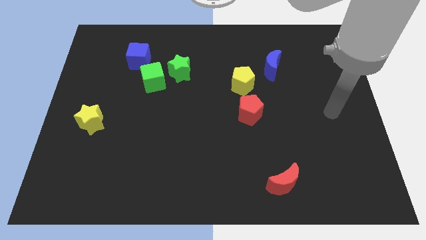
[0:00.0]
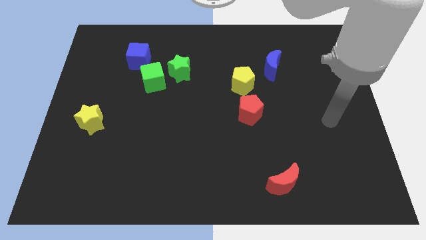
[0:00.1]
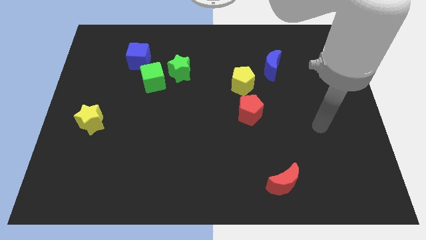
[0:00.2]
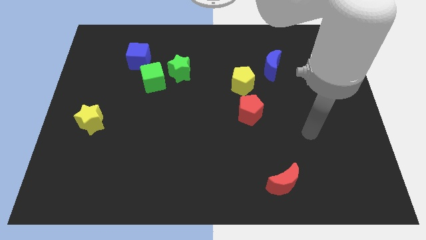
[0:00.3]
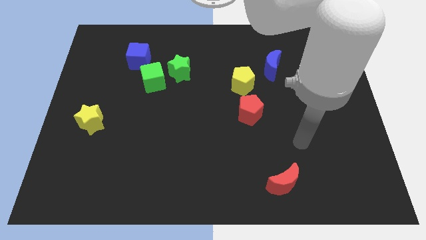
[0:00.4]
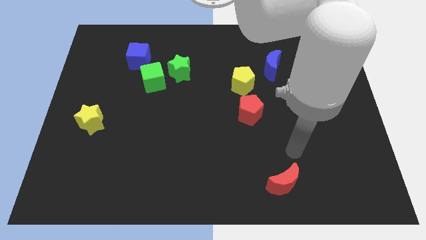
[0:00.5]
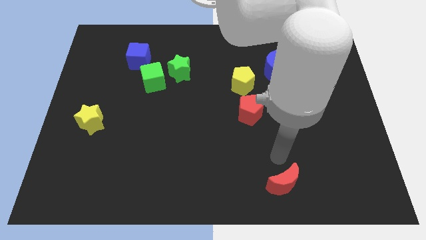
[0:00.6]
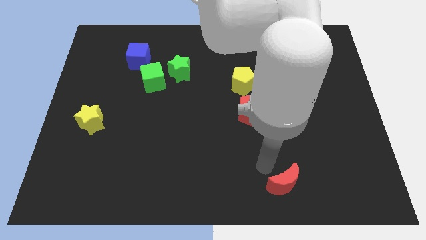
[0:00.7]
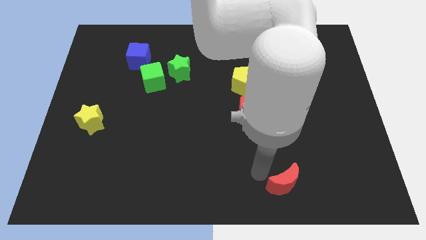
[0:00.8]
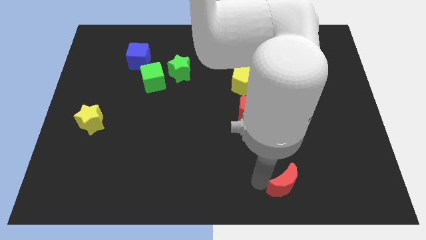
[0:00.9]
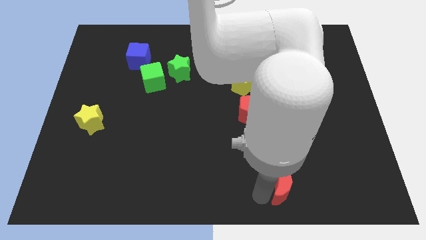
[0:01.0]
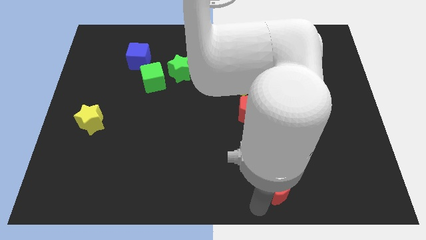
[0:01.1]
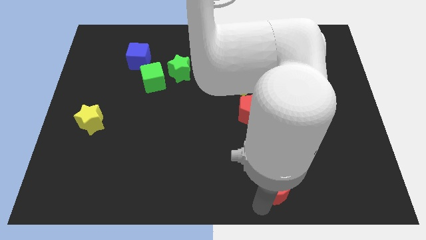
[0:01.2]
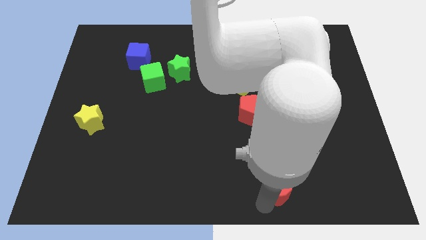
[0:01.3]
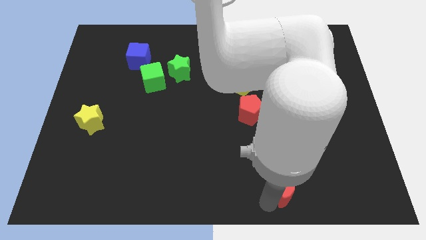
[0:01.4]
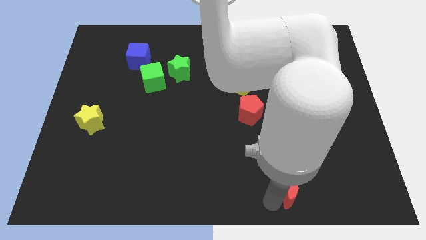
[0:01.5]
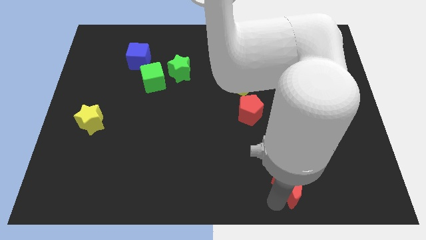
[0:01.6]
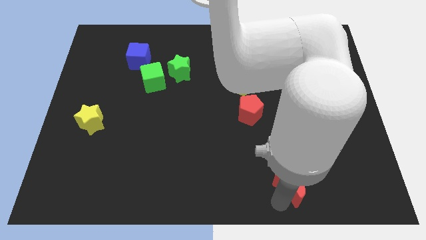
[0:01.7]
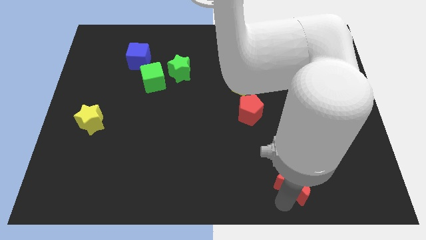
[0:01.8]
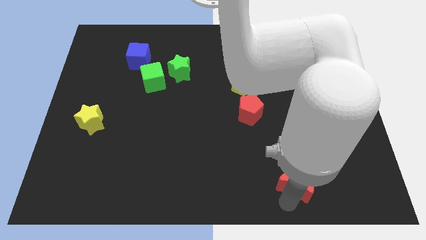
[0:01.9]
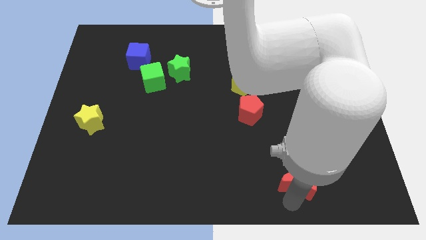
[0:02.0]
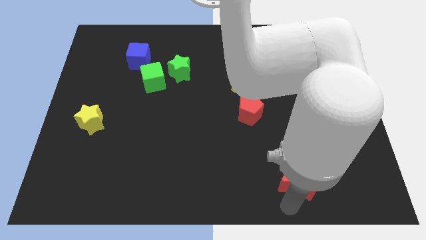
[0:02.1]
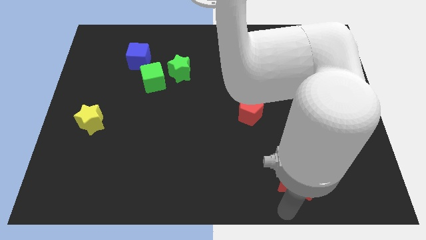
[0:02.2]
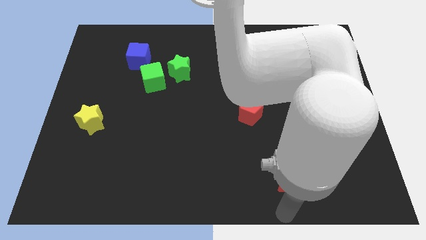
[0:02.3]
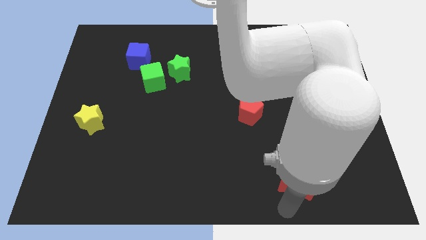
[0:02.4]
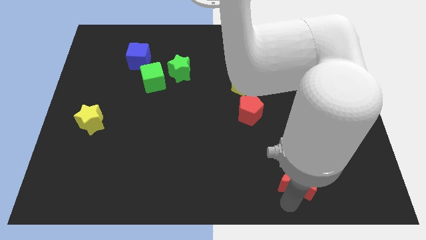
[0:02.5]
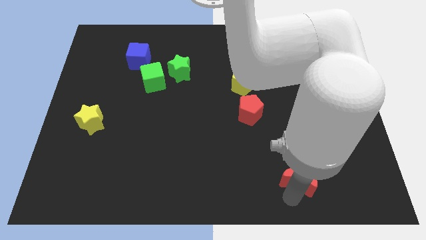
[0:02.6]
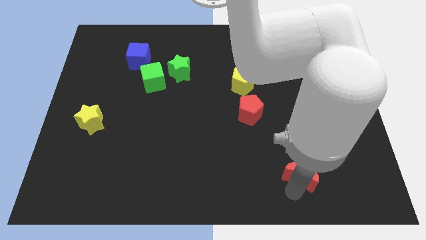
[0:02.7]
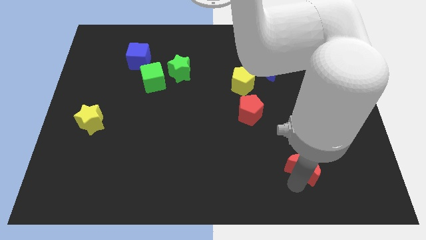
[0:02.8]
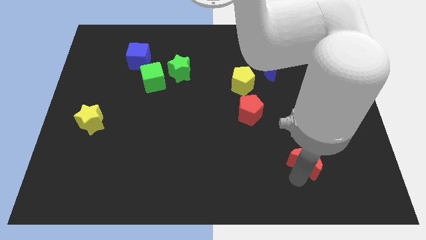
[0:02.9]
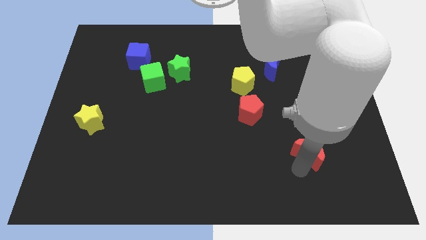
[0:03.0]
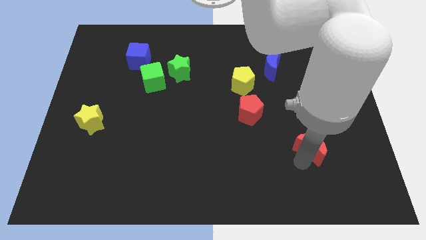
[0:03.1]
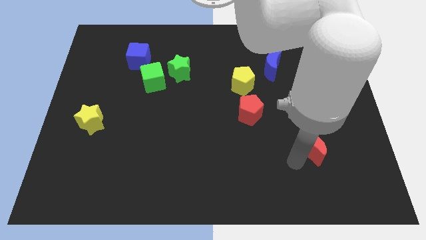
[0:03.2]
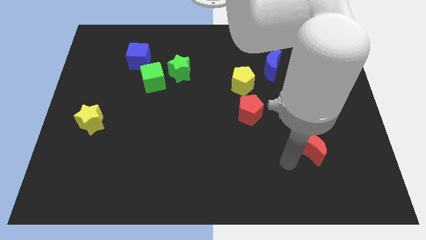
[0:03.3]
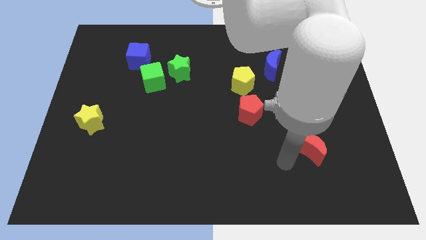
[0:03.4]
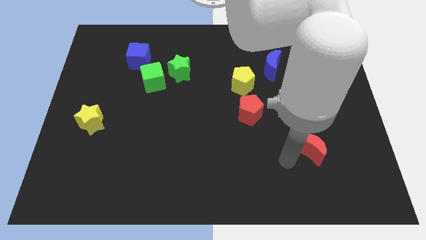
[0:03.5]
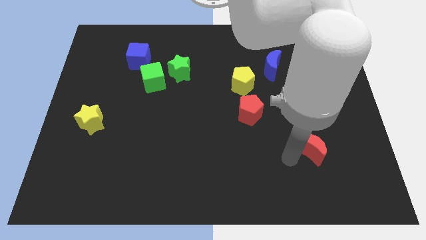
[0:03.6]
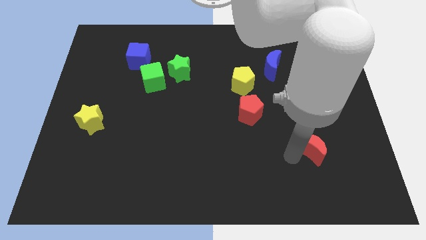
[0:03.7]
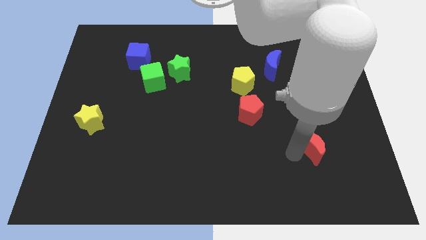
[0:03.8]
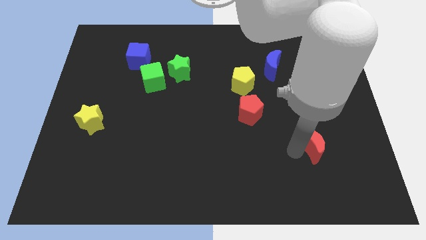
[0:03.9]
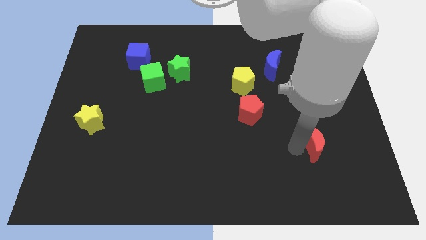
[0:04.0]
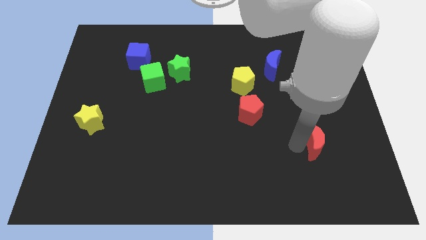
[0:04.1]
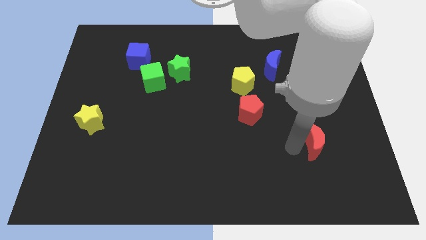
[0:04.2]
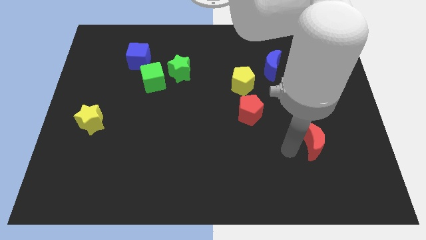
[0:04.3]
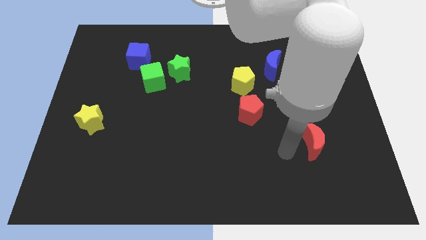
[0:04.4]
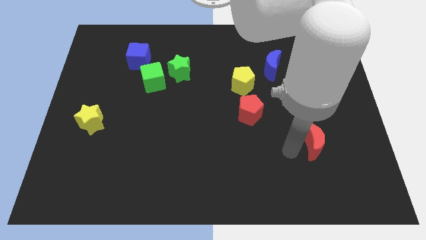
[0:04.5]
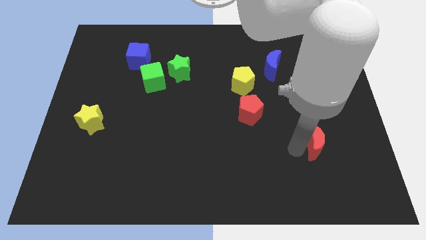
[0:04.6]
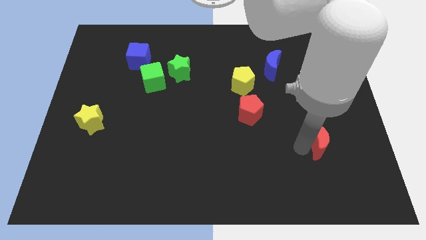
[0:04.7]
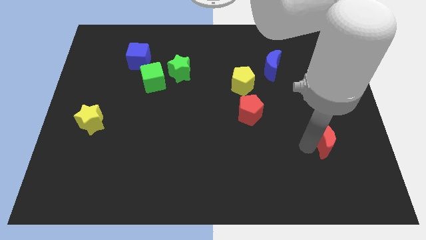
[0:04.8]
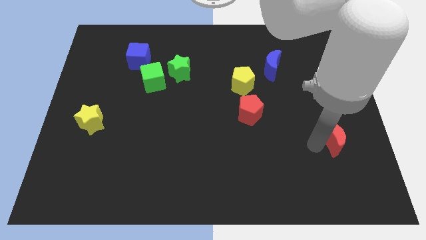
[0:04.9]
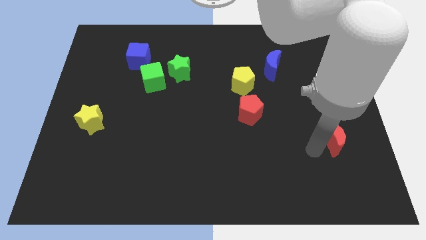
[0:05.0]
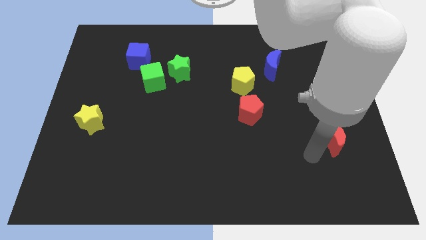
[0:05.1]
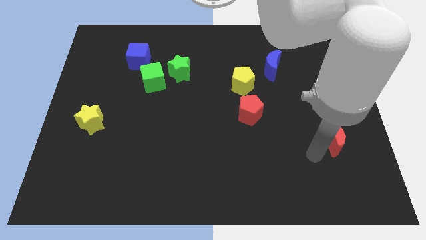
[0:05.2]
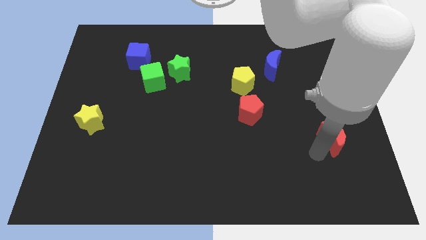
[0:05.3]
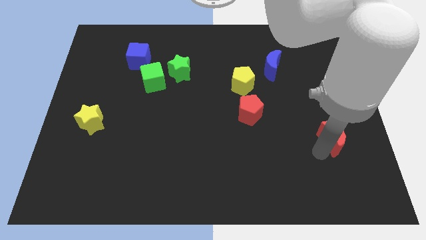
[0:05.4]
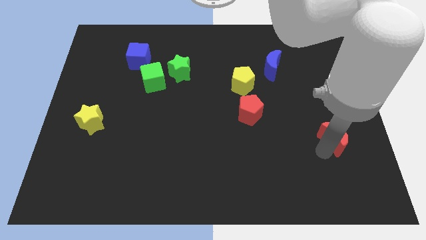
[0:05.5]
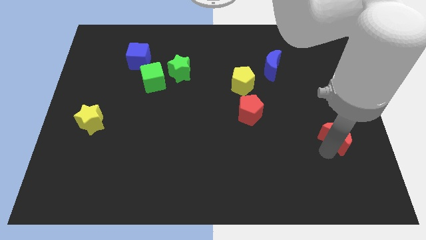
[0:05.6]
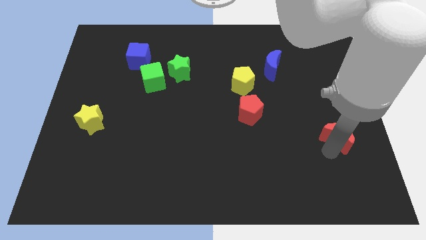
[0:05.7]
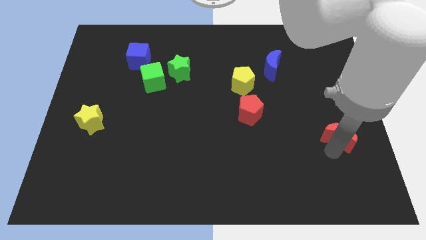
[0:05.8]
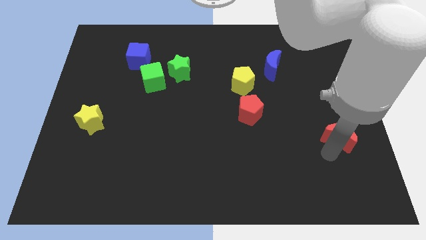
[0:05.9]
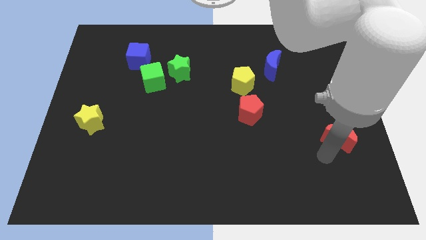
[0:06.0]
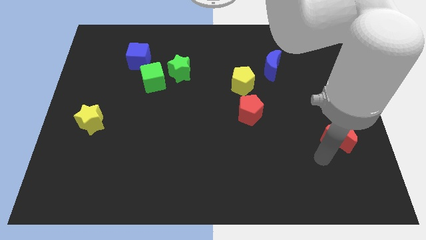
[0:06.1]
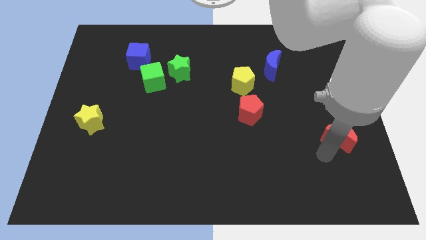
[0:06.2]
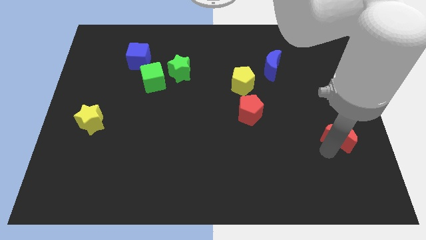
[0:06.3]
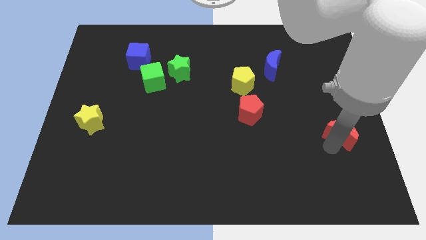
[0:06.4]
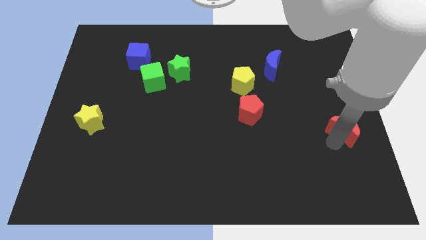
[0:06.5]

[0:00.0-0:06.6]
move the red moon to the right side of the board
